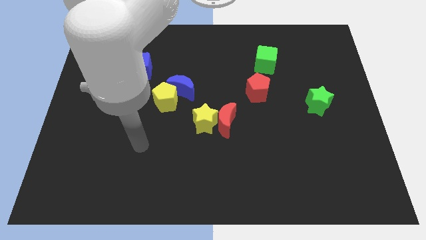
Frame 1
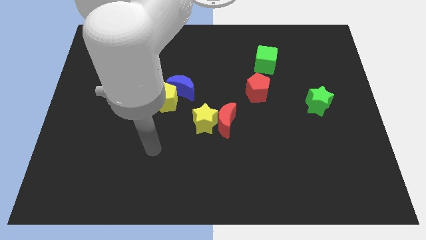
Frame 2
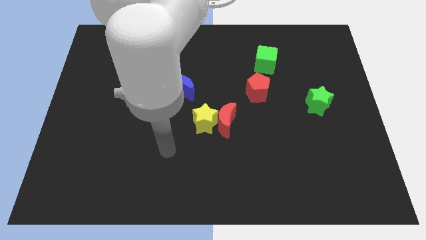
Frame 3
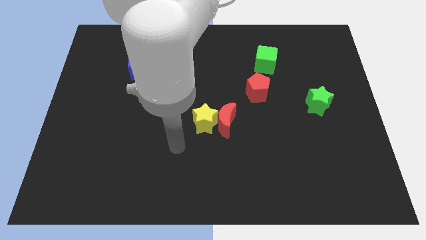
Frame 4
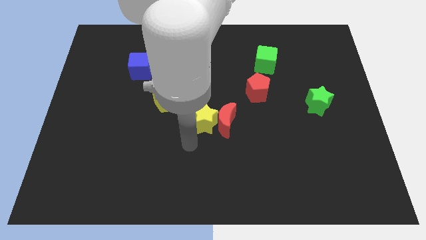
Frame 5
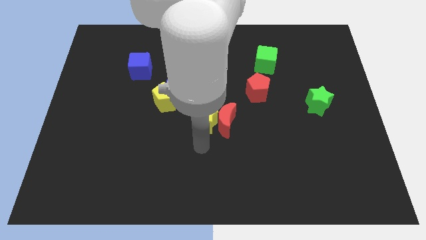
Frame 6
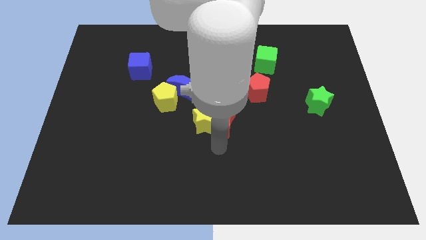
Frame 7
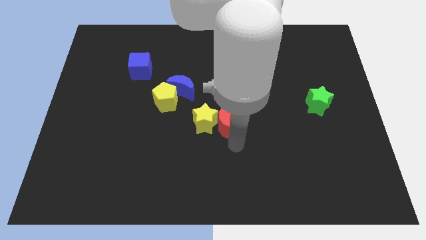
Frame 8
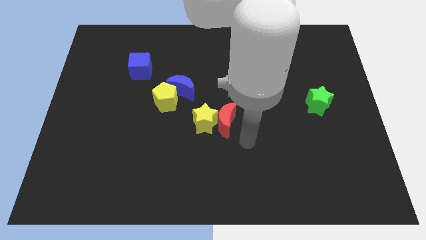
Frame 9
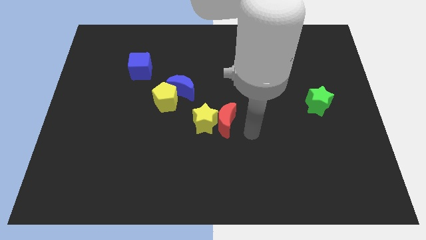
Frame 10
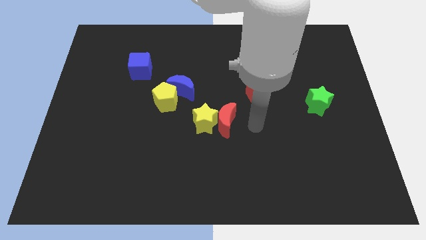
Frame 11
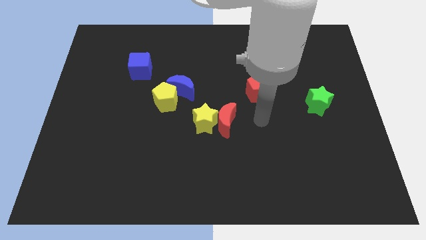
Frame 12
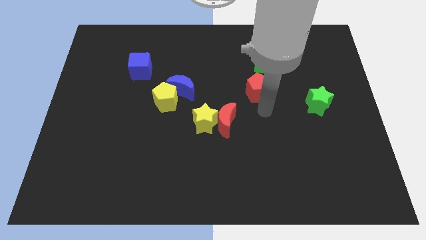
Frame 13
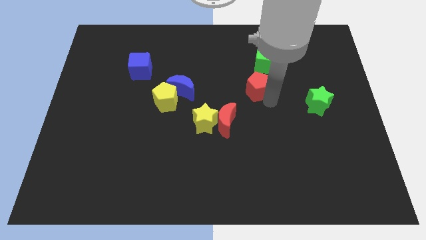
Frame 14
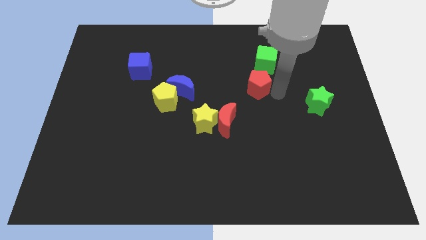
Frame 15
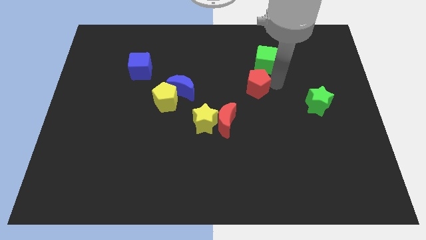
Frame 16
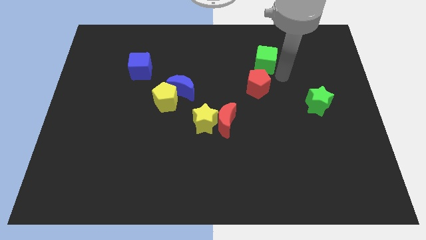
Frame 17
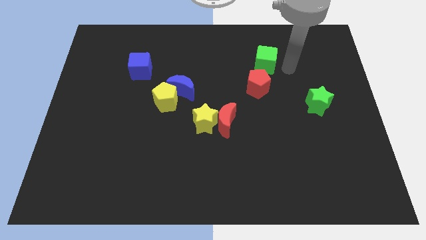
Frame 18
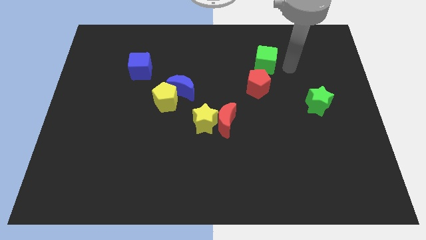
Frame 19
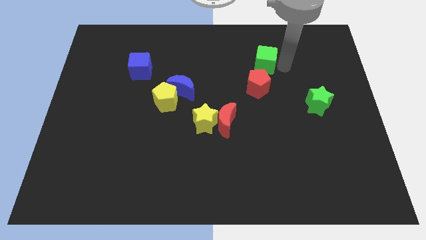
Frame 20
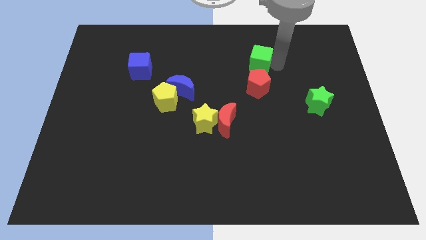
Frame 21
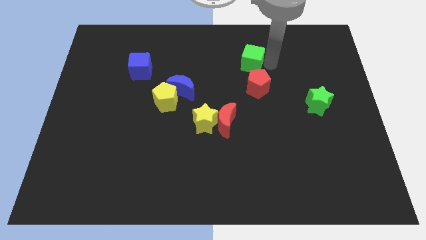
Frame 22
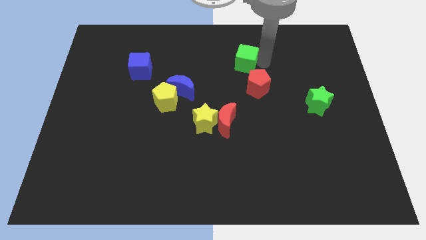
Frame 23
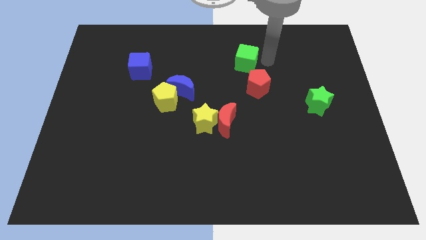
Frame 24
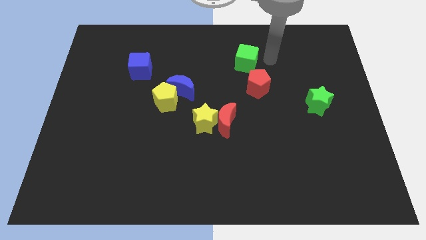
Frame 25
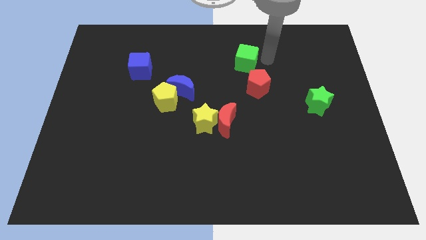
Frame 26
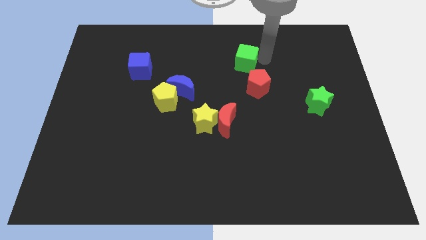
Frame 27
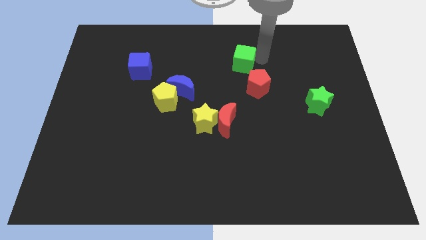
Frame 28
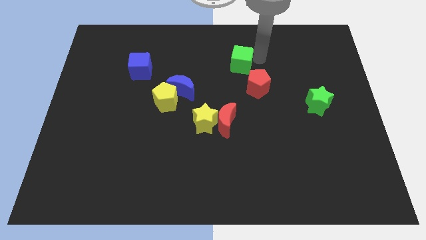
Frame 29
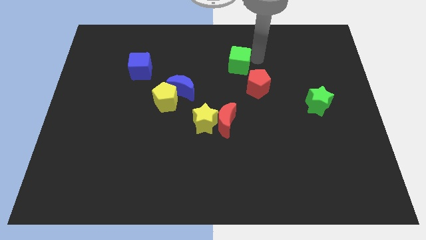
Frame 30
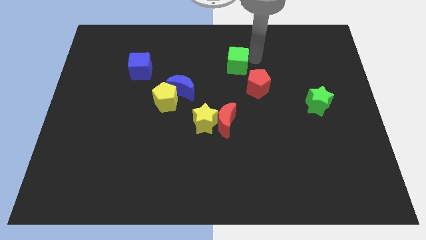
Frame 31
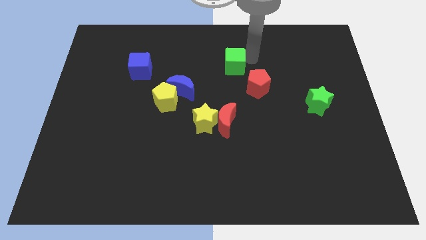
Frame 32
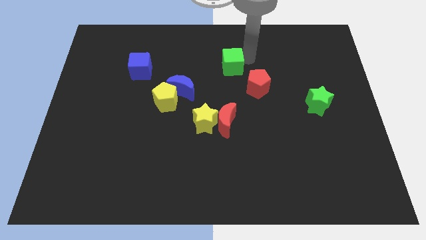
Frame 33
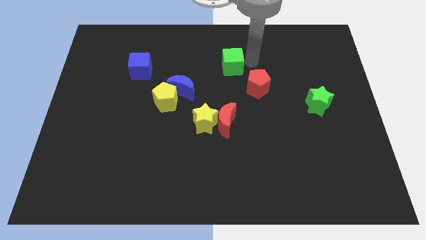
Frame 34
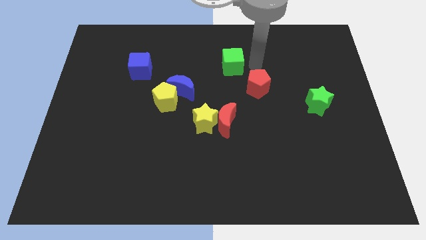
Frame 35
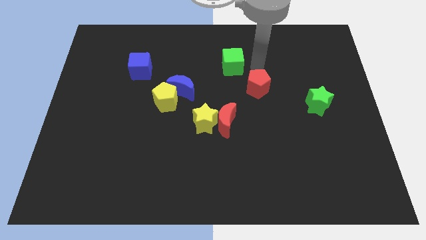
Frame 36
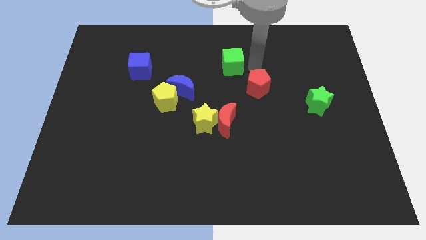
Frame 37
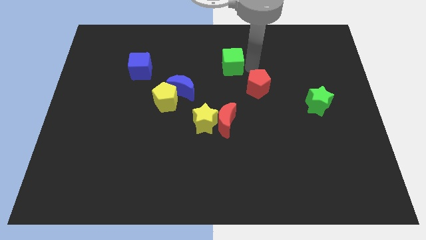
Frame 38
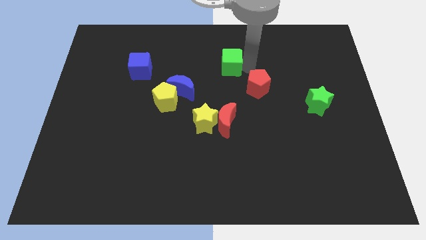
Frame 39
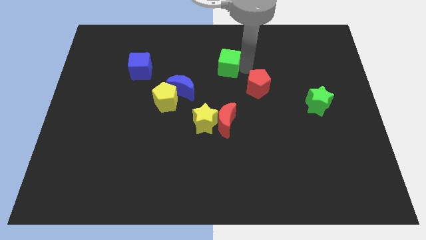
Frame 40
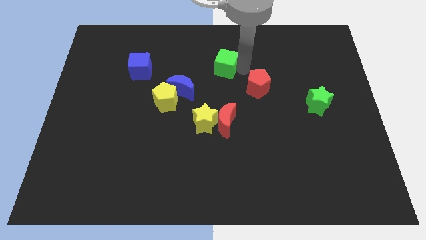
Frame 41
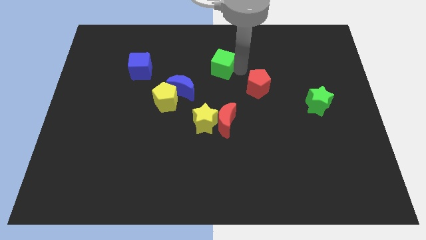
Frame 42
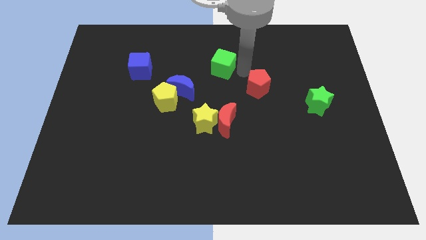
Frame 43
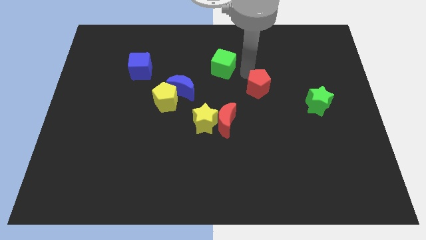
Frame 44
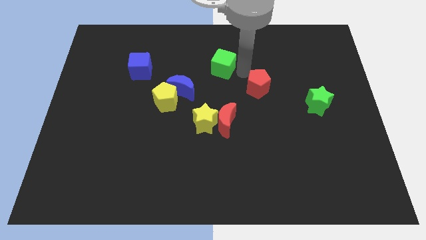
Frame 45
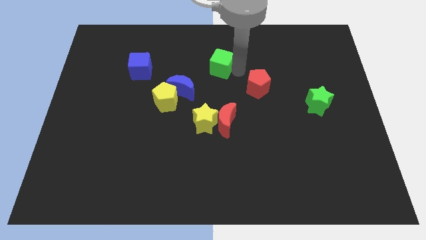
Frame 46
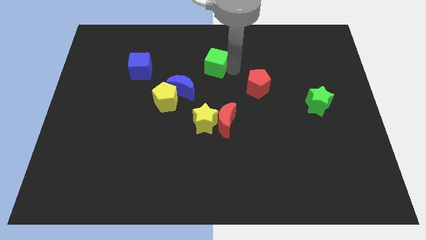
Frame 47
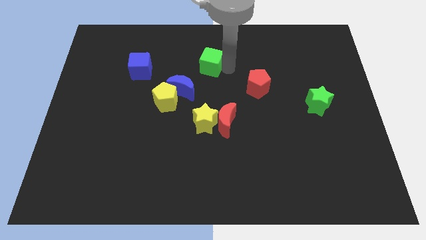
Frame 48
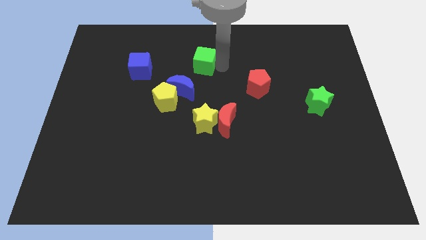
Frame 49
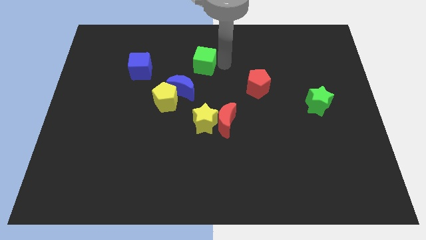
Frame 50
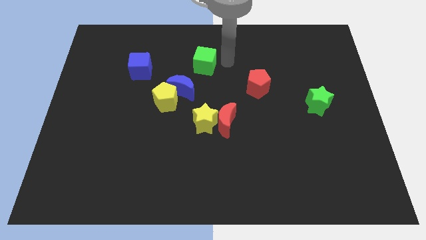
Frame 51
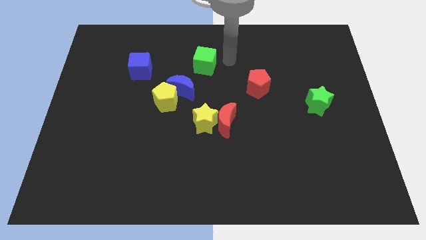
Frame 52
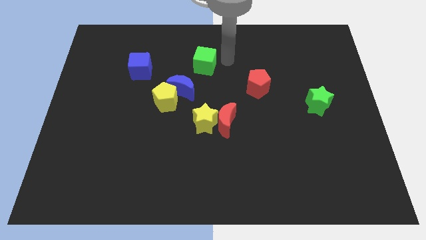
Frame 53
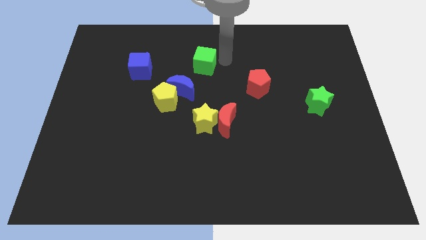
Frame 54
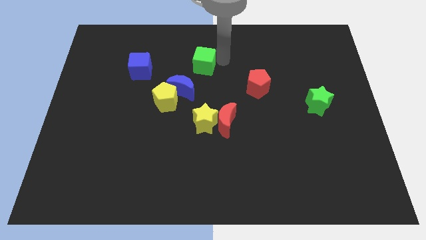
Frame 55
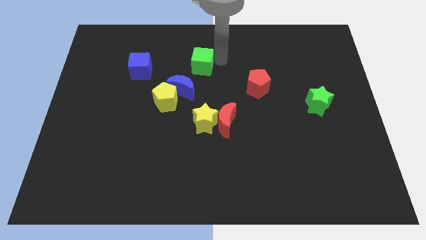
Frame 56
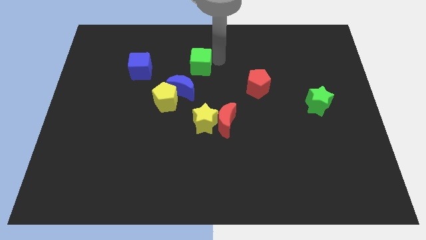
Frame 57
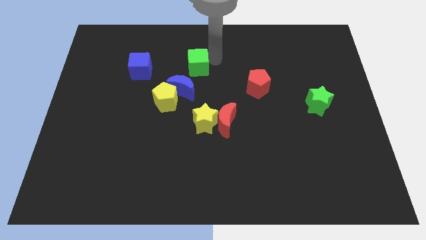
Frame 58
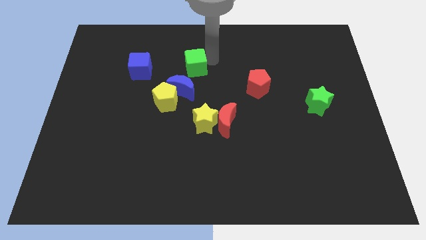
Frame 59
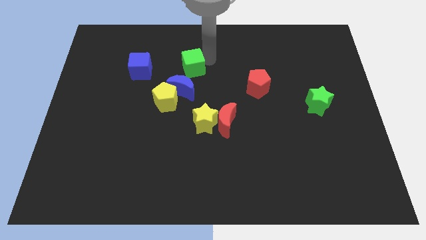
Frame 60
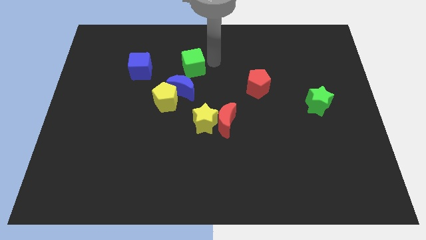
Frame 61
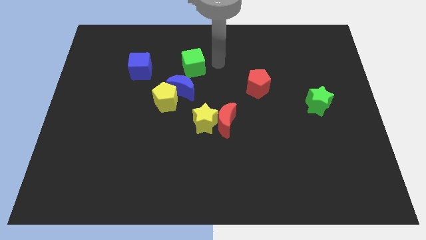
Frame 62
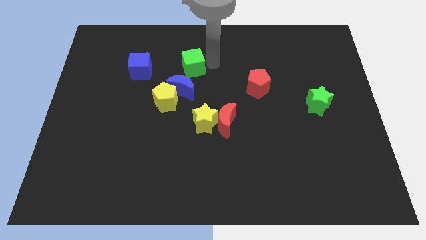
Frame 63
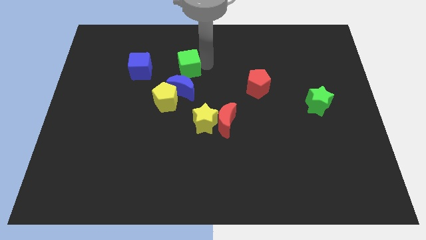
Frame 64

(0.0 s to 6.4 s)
slide the green cube to the top side of the yellow pentagon

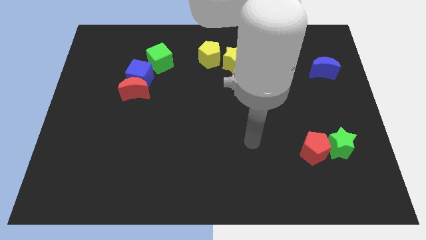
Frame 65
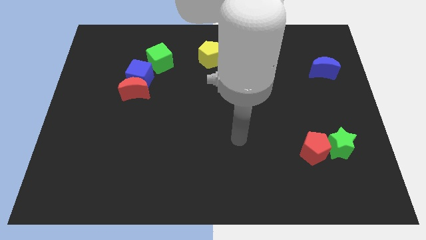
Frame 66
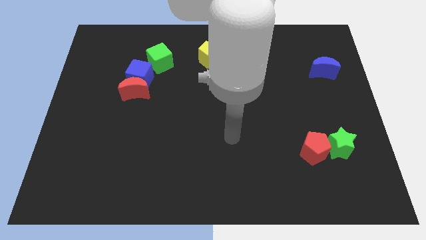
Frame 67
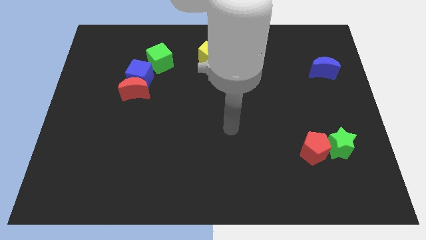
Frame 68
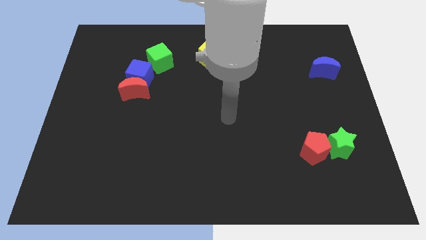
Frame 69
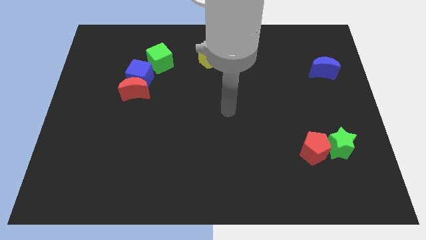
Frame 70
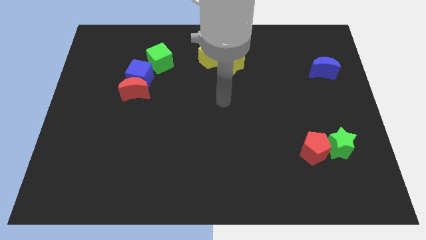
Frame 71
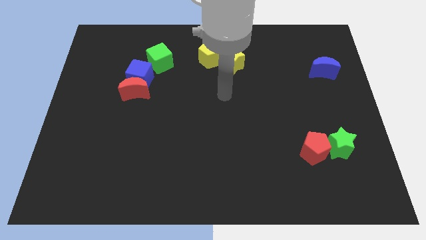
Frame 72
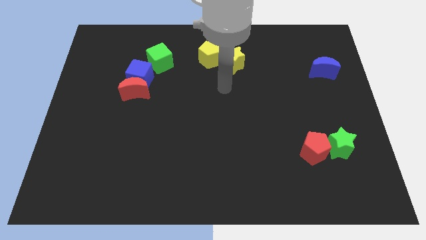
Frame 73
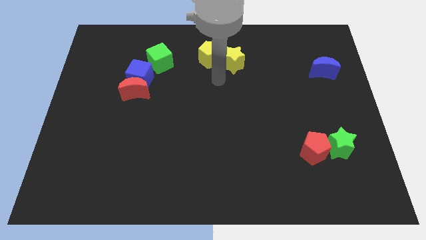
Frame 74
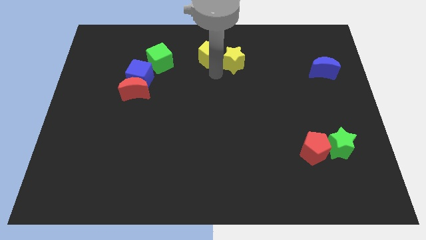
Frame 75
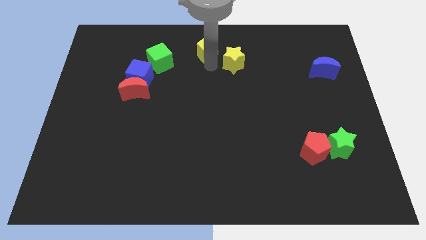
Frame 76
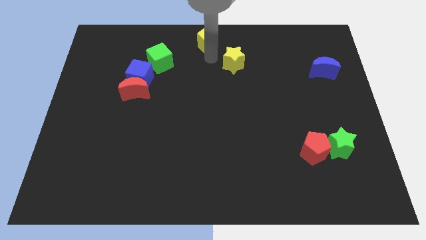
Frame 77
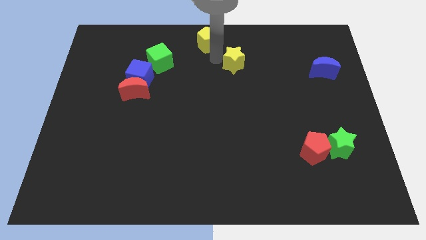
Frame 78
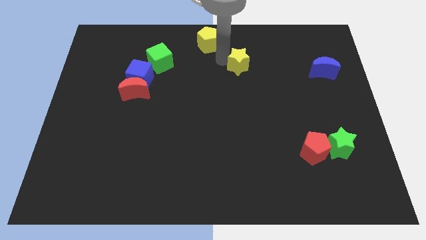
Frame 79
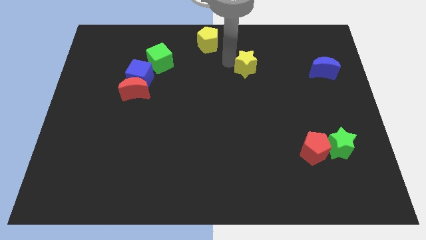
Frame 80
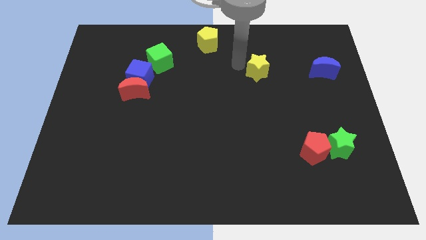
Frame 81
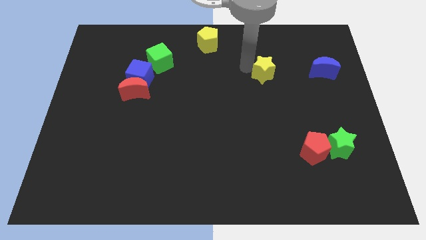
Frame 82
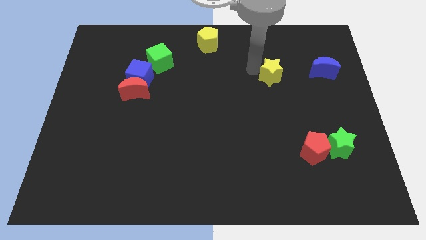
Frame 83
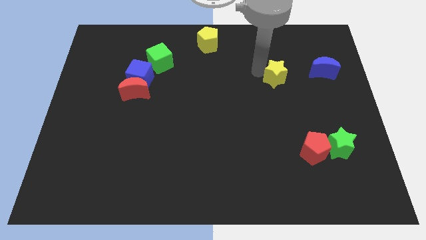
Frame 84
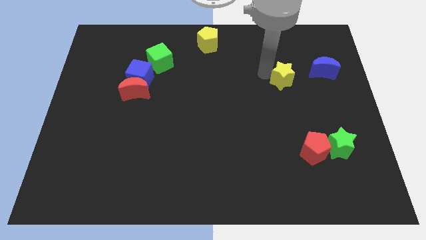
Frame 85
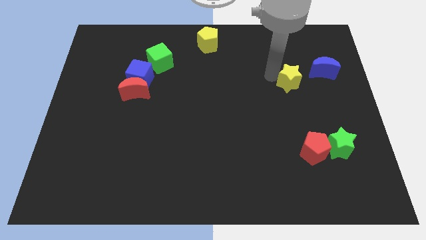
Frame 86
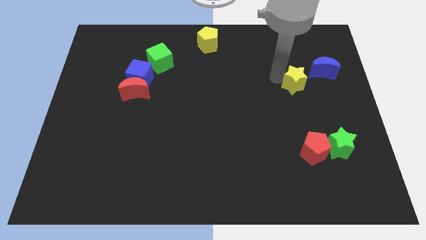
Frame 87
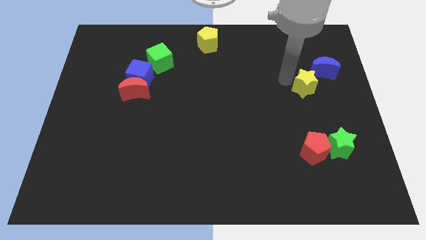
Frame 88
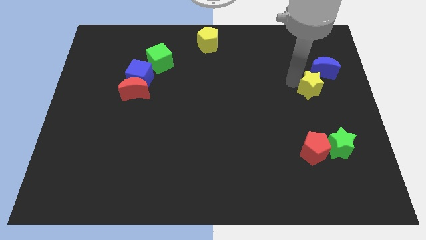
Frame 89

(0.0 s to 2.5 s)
push the yellow star to the bottom side of the blue moon
